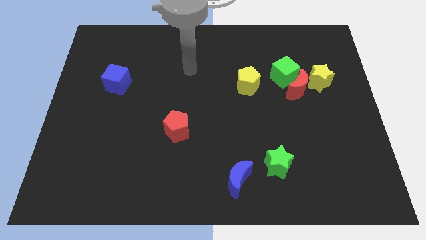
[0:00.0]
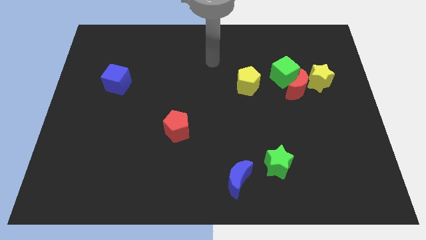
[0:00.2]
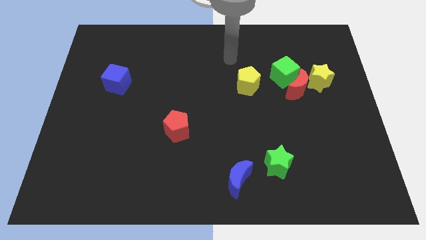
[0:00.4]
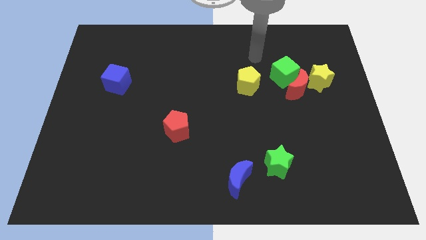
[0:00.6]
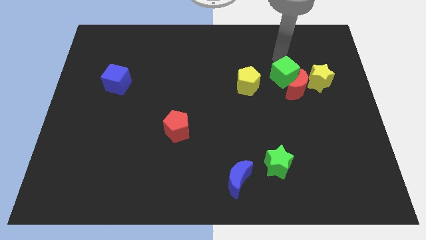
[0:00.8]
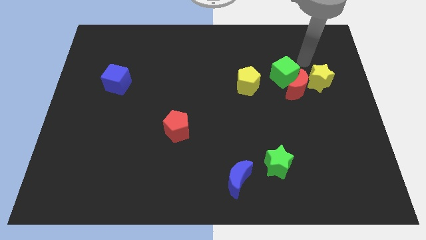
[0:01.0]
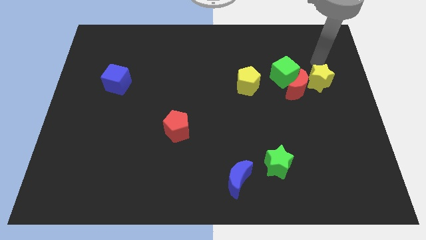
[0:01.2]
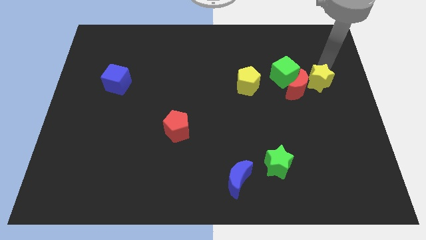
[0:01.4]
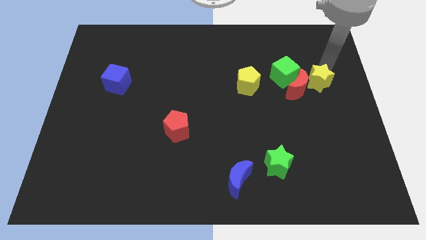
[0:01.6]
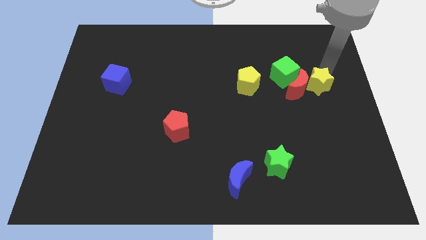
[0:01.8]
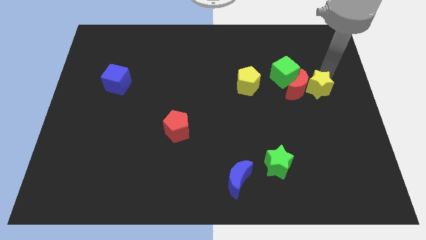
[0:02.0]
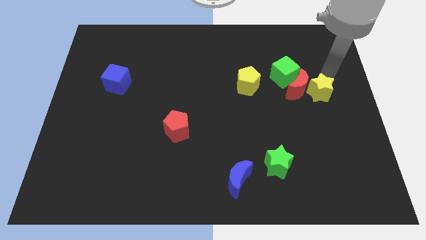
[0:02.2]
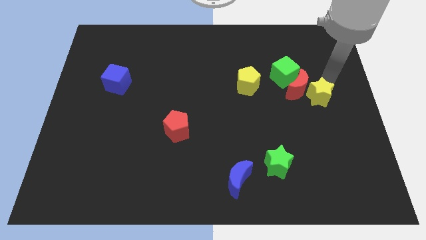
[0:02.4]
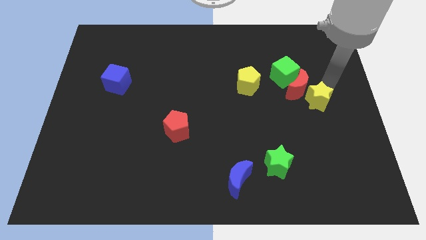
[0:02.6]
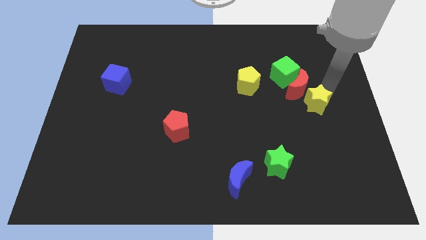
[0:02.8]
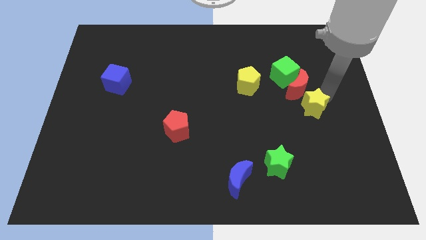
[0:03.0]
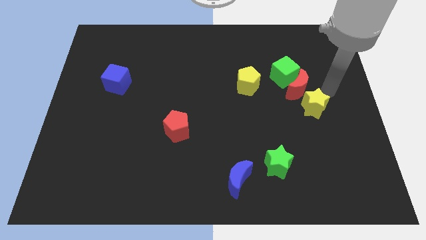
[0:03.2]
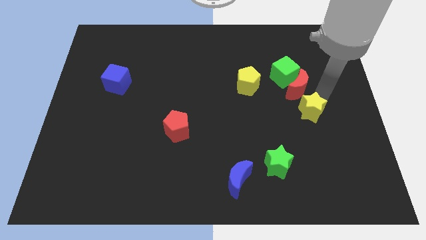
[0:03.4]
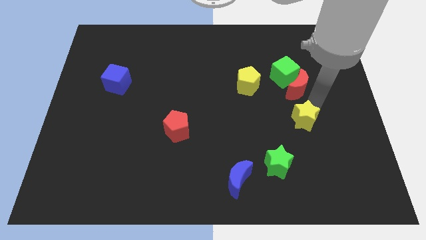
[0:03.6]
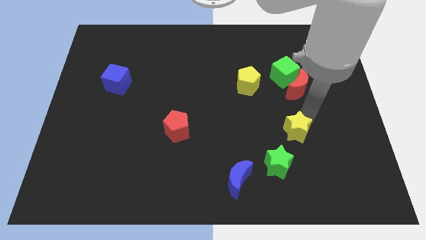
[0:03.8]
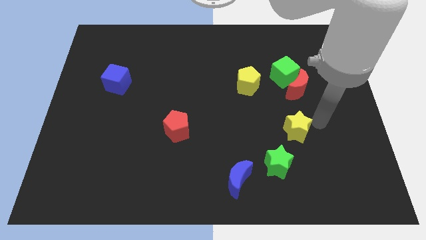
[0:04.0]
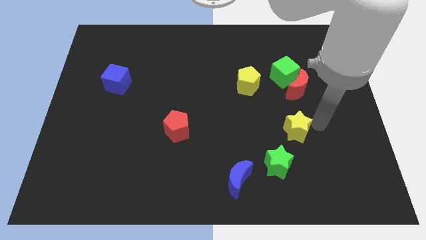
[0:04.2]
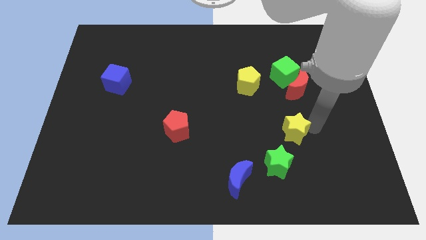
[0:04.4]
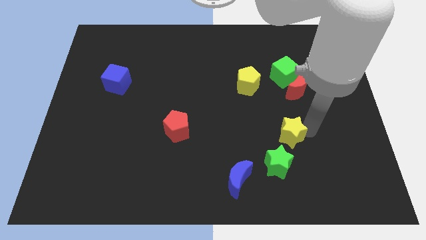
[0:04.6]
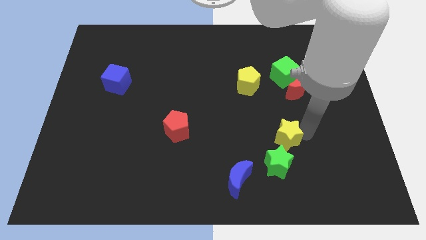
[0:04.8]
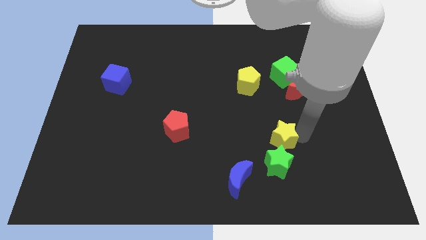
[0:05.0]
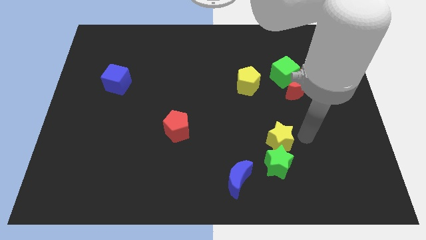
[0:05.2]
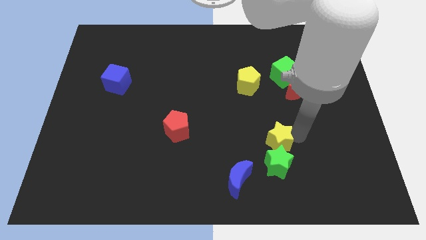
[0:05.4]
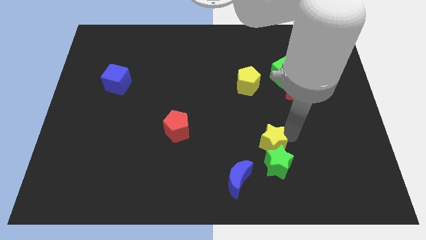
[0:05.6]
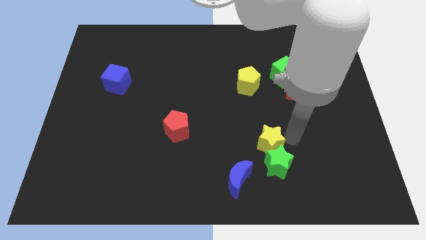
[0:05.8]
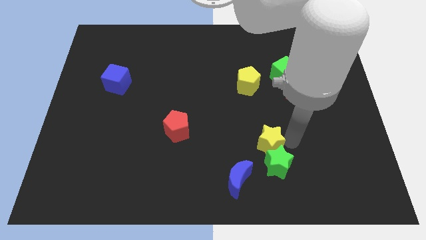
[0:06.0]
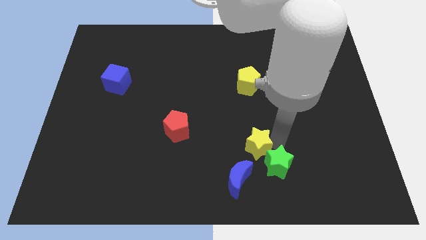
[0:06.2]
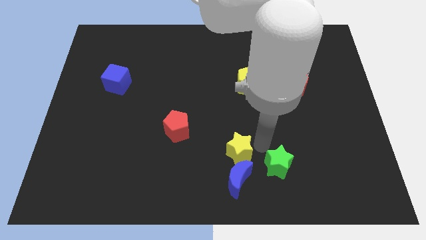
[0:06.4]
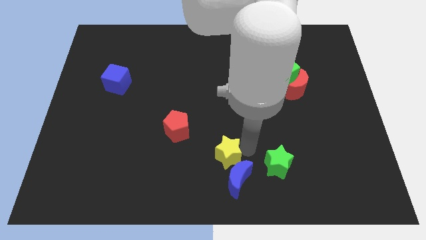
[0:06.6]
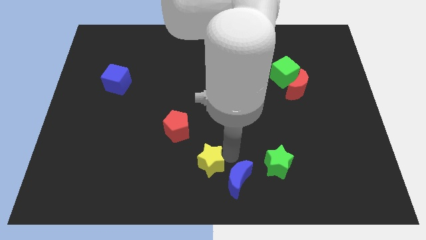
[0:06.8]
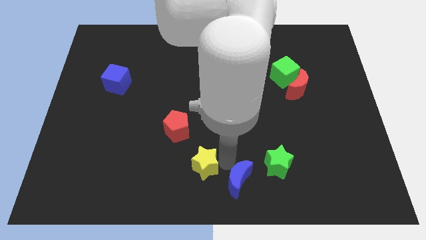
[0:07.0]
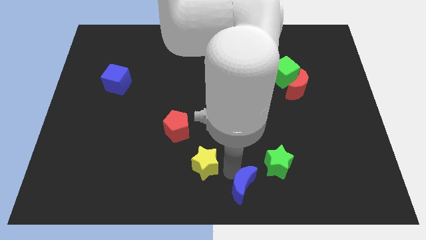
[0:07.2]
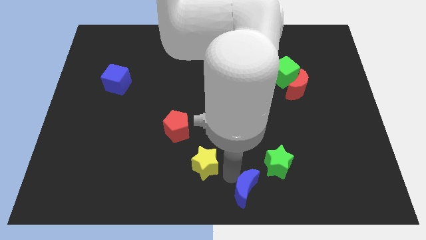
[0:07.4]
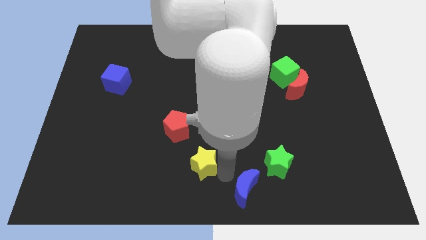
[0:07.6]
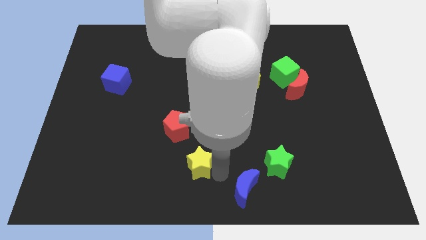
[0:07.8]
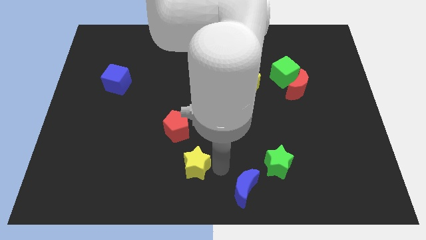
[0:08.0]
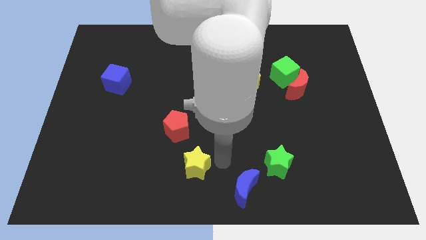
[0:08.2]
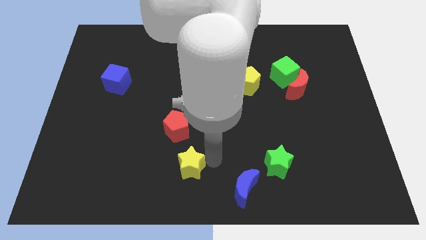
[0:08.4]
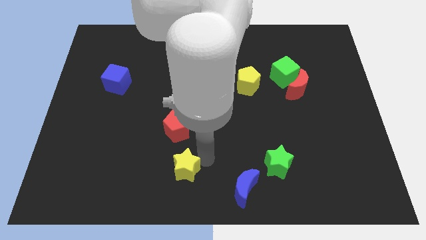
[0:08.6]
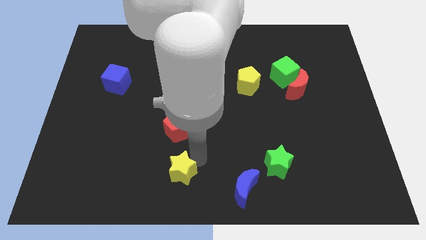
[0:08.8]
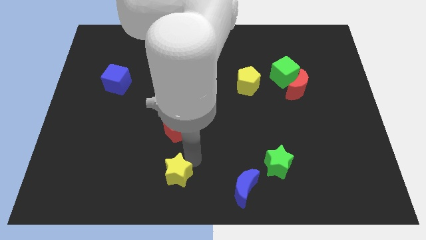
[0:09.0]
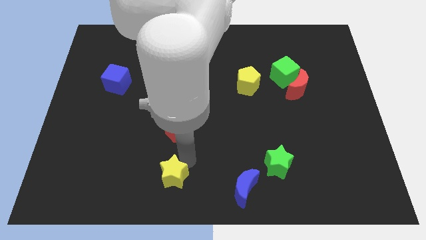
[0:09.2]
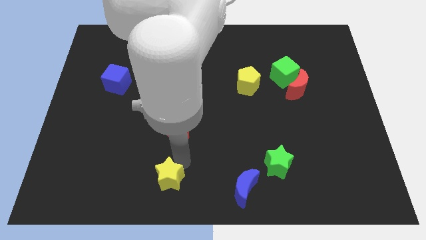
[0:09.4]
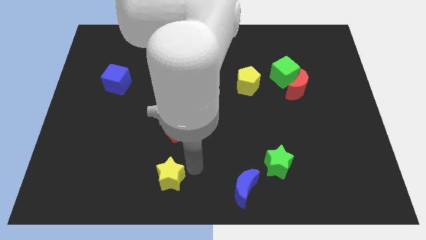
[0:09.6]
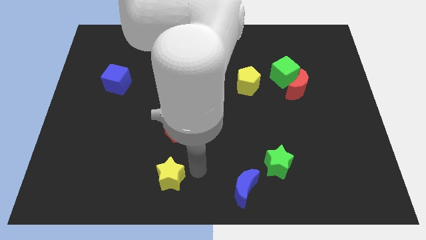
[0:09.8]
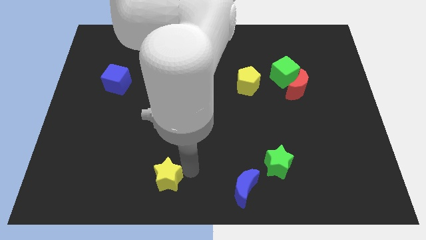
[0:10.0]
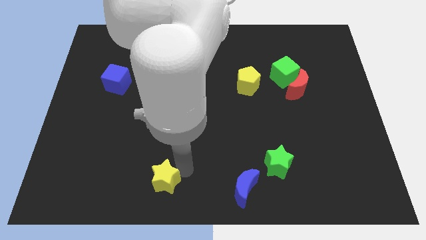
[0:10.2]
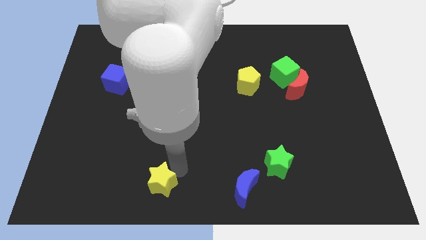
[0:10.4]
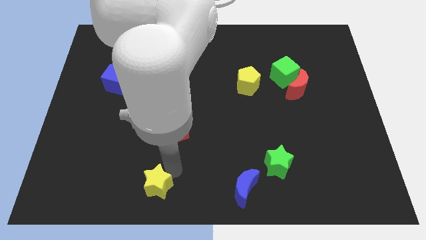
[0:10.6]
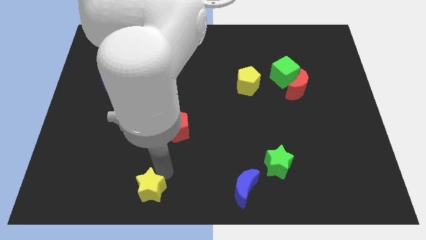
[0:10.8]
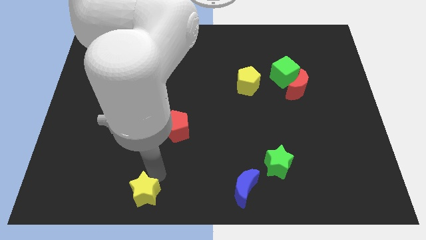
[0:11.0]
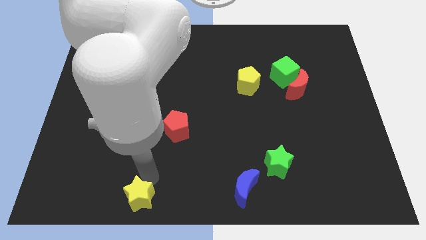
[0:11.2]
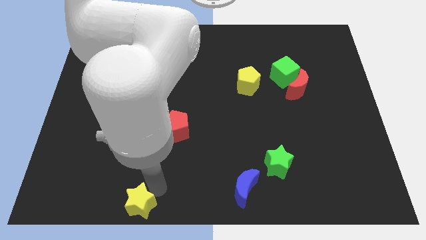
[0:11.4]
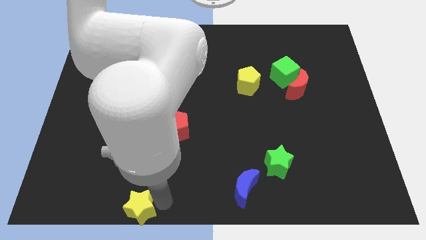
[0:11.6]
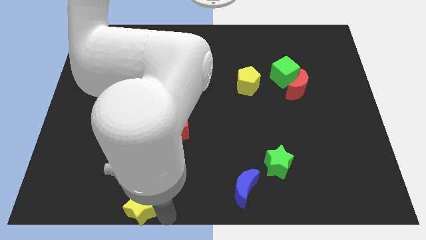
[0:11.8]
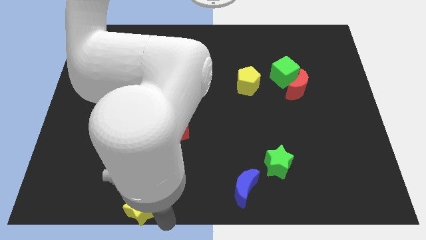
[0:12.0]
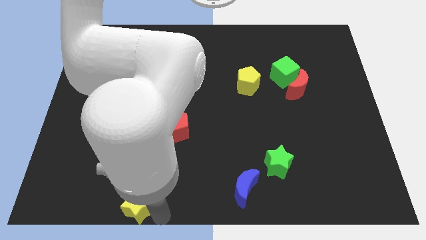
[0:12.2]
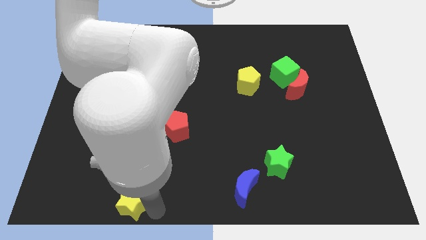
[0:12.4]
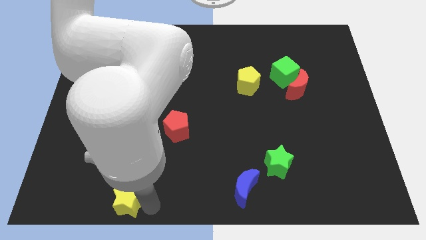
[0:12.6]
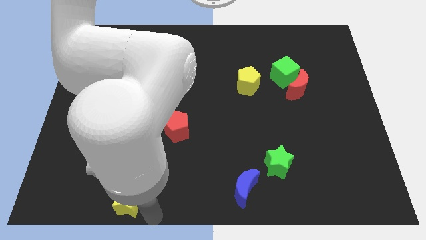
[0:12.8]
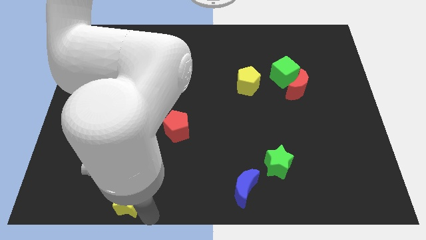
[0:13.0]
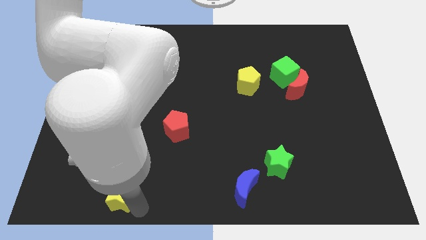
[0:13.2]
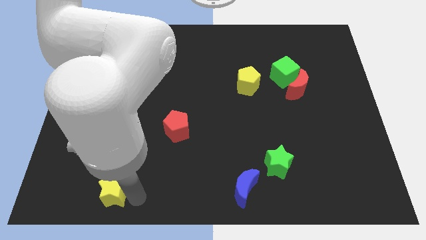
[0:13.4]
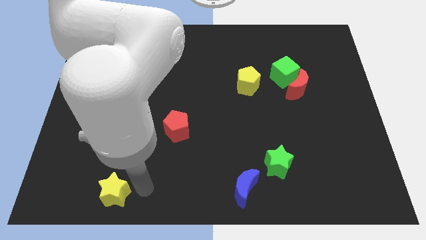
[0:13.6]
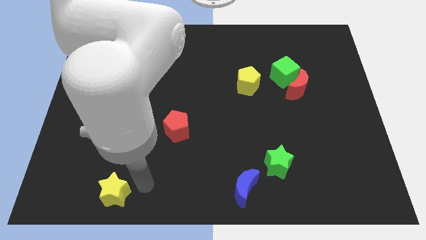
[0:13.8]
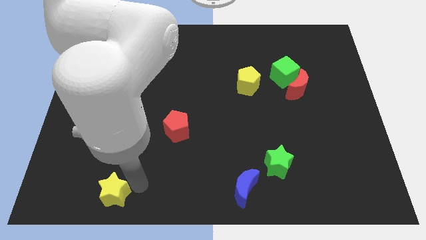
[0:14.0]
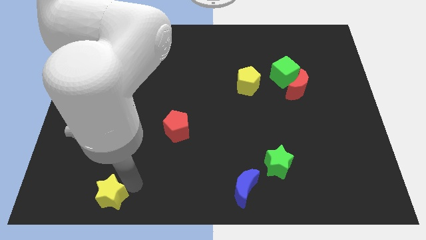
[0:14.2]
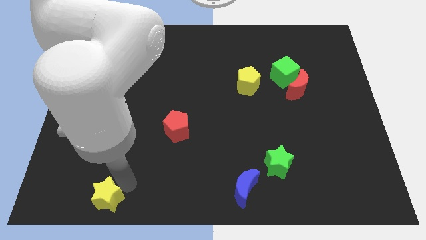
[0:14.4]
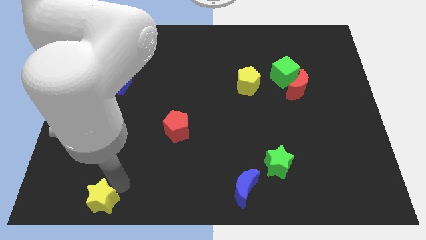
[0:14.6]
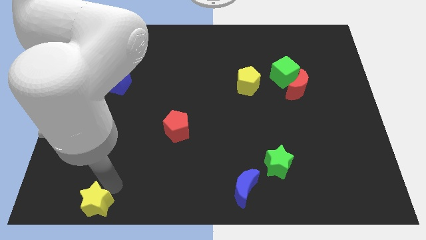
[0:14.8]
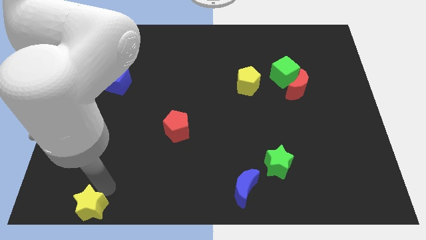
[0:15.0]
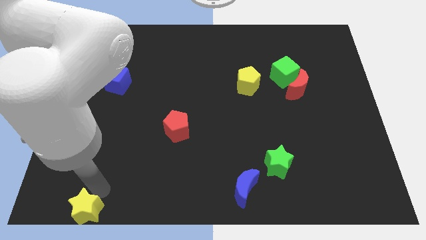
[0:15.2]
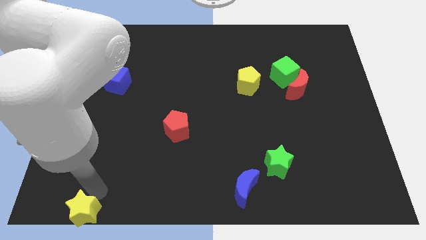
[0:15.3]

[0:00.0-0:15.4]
put the yellow star to the bottom left corner
